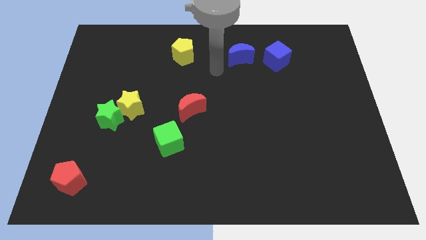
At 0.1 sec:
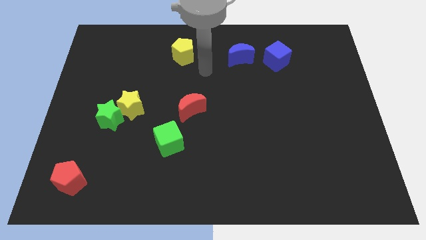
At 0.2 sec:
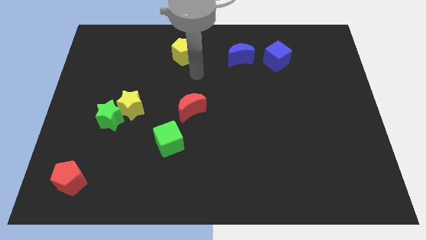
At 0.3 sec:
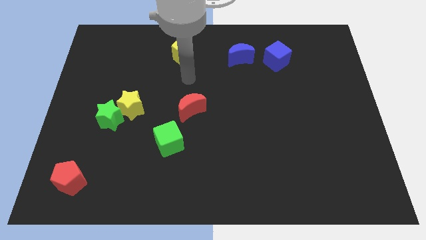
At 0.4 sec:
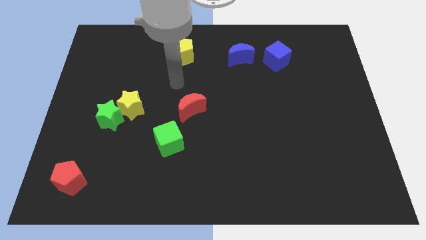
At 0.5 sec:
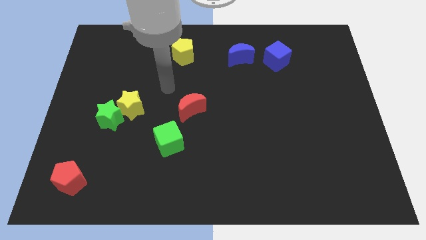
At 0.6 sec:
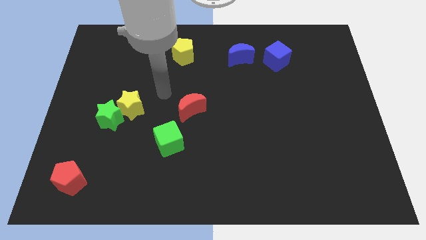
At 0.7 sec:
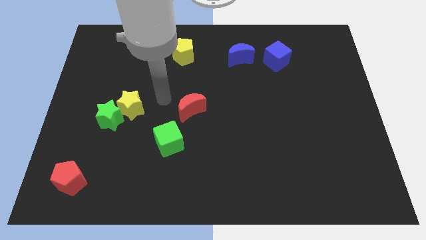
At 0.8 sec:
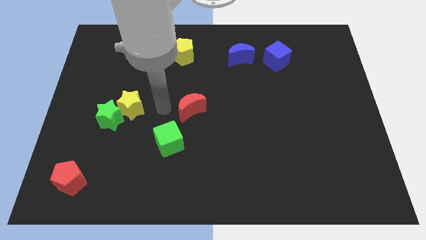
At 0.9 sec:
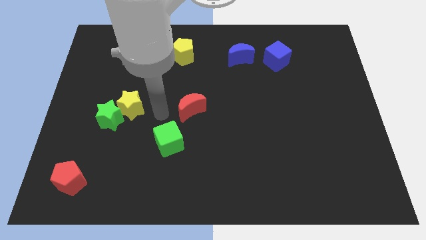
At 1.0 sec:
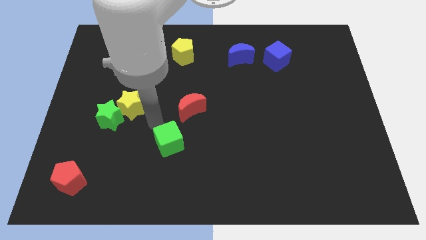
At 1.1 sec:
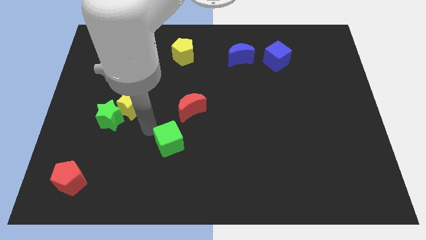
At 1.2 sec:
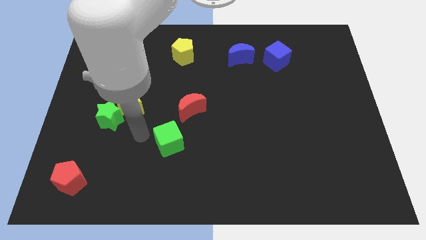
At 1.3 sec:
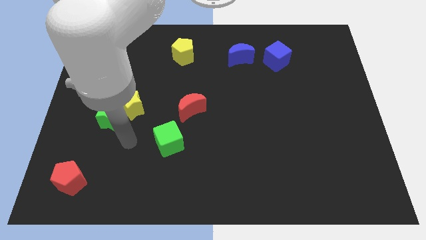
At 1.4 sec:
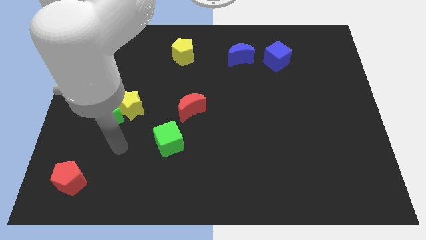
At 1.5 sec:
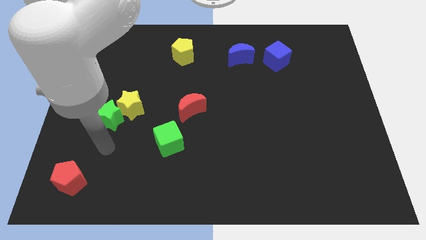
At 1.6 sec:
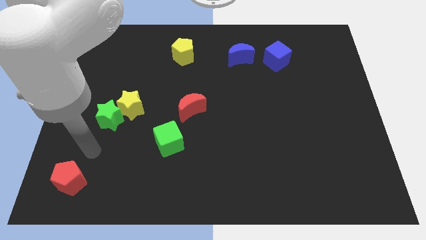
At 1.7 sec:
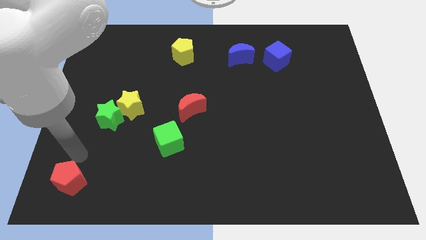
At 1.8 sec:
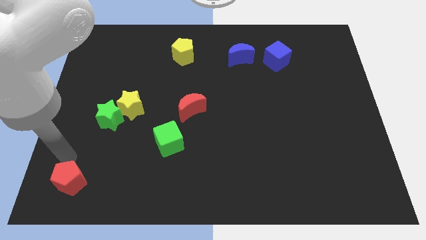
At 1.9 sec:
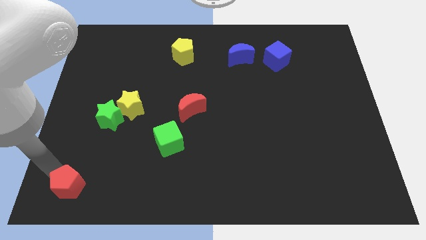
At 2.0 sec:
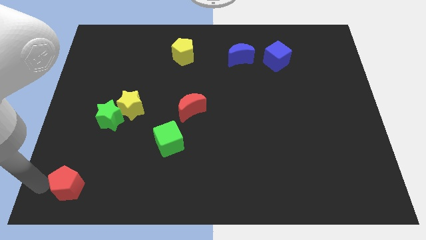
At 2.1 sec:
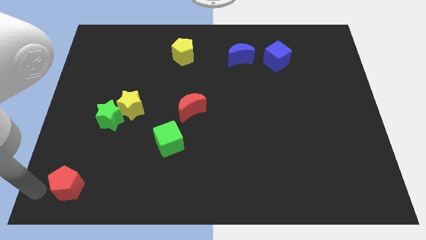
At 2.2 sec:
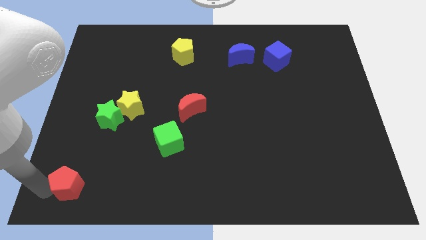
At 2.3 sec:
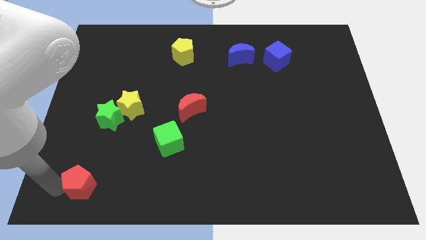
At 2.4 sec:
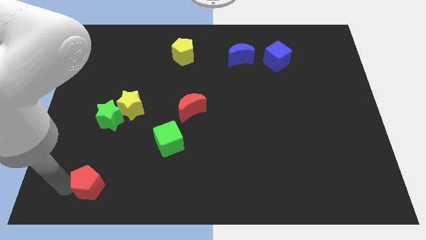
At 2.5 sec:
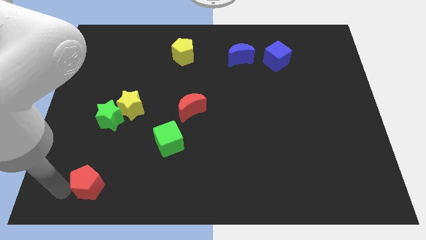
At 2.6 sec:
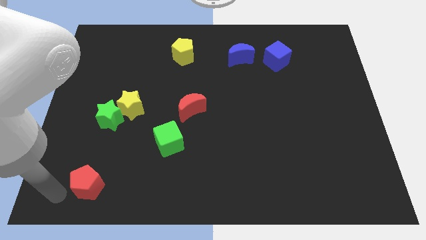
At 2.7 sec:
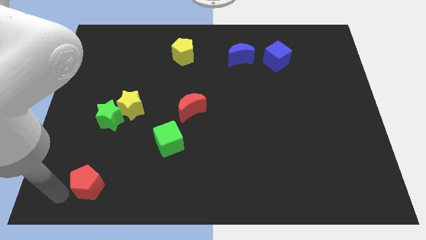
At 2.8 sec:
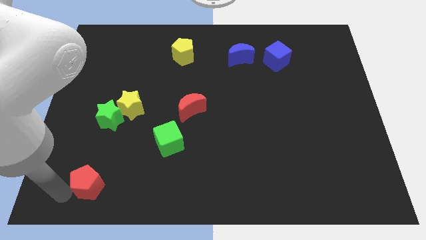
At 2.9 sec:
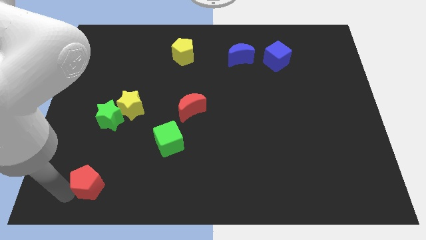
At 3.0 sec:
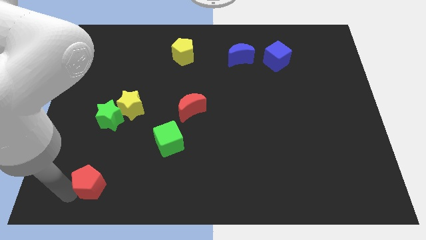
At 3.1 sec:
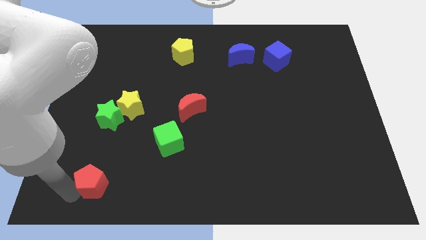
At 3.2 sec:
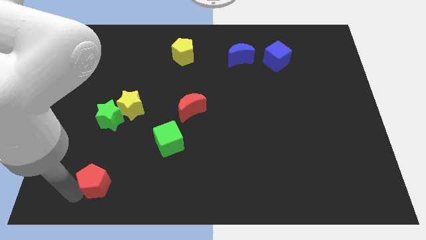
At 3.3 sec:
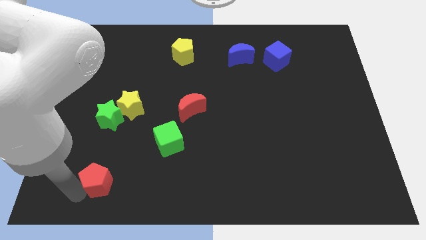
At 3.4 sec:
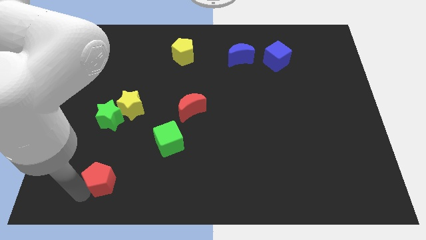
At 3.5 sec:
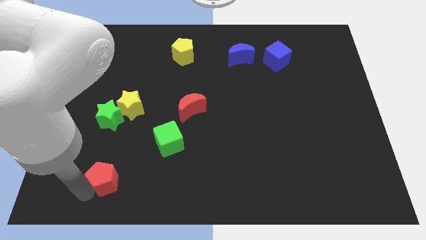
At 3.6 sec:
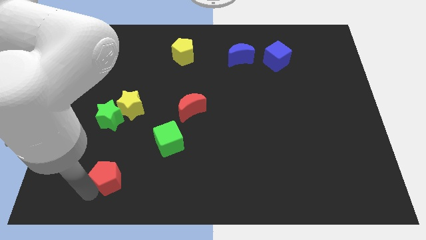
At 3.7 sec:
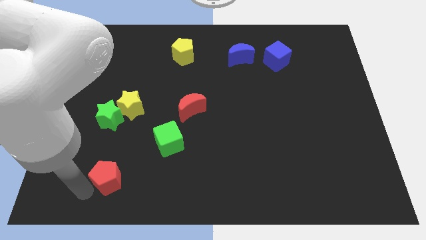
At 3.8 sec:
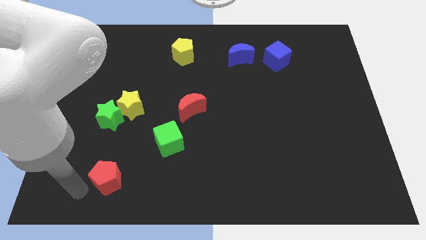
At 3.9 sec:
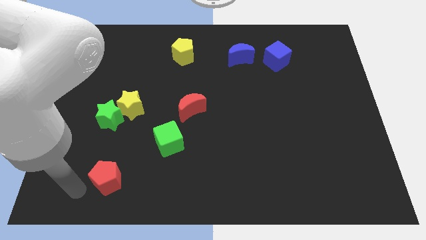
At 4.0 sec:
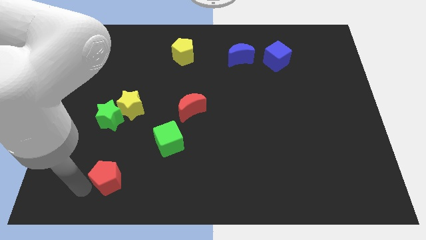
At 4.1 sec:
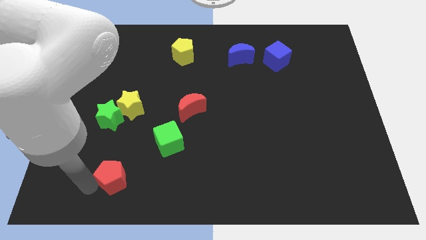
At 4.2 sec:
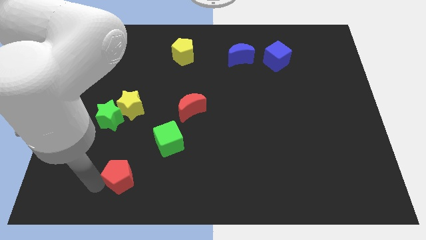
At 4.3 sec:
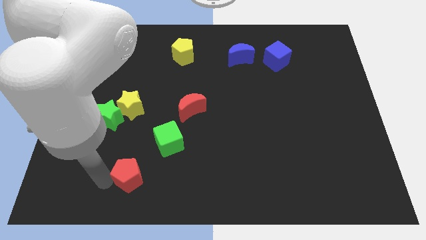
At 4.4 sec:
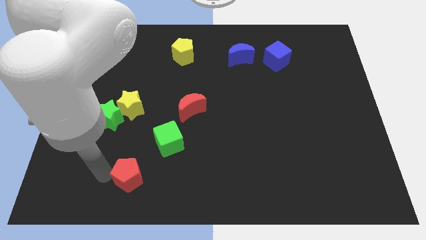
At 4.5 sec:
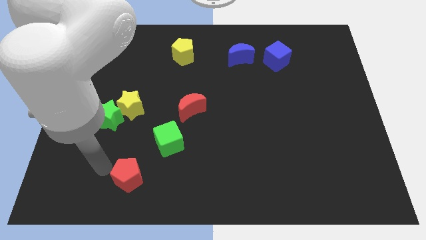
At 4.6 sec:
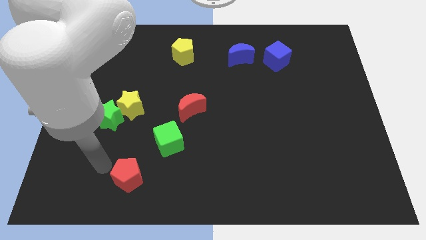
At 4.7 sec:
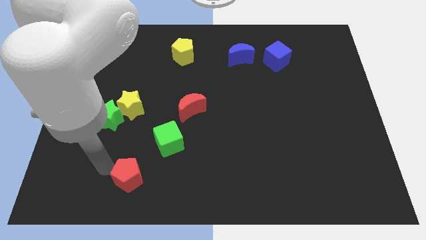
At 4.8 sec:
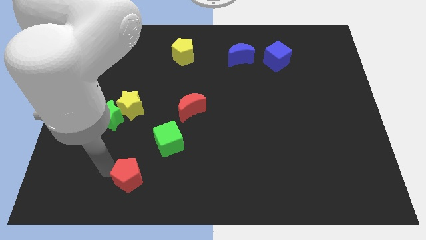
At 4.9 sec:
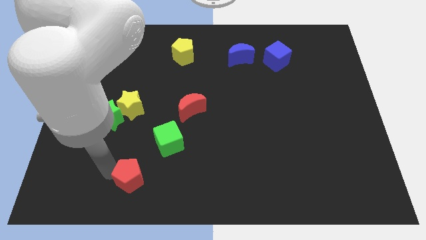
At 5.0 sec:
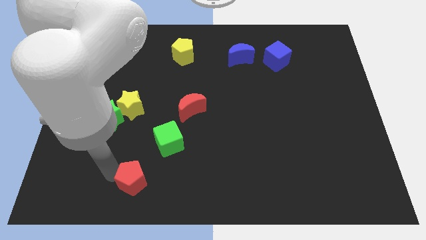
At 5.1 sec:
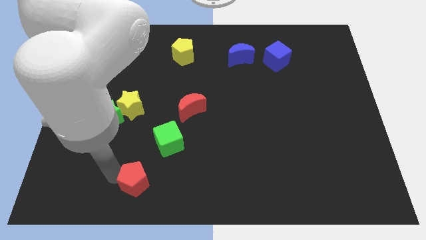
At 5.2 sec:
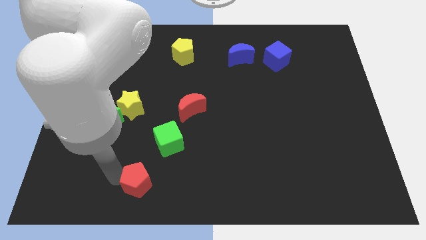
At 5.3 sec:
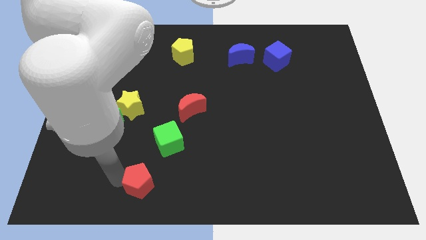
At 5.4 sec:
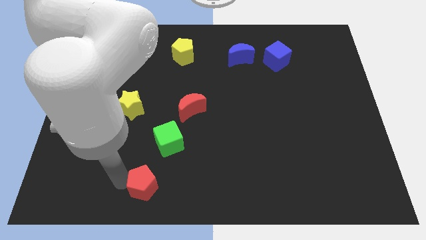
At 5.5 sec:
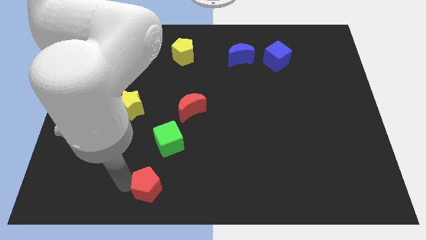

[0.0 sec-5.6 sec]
put the red pentagon to the bottom

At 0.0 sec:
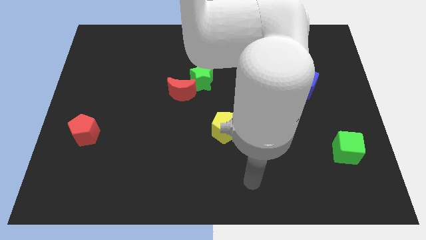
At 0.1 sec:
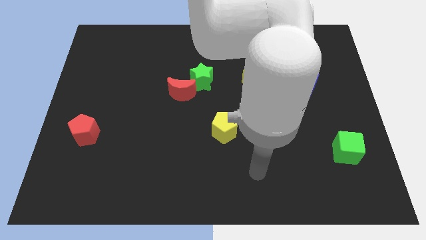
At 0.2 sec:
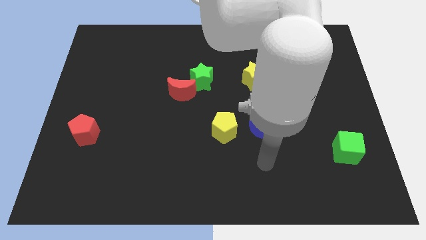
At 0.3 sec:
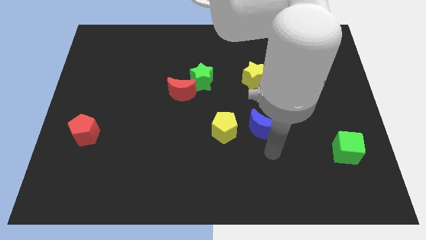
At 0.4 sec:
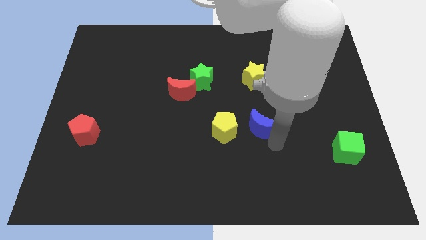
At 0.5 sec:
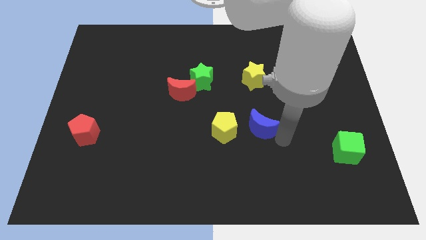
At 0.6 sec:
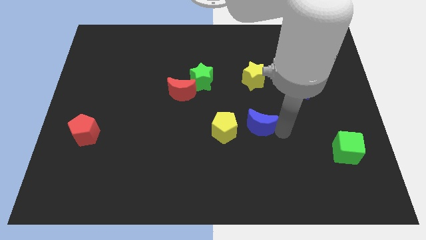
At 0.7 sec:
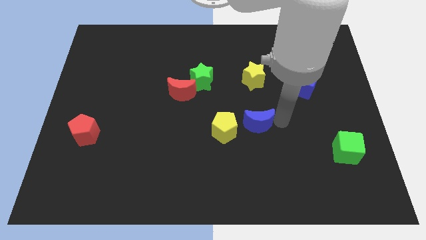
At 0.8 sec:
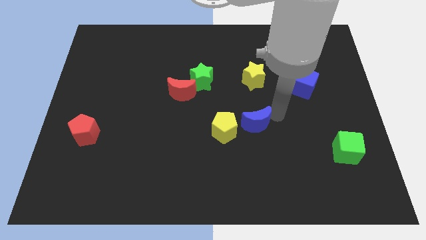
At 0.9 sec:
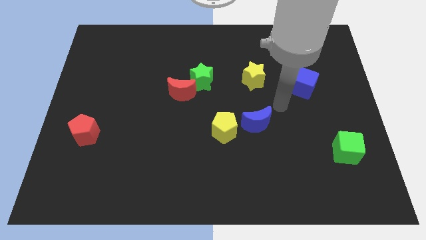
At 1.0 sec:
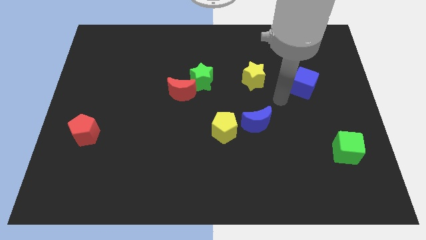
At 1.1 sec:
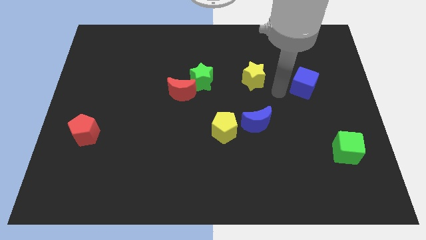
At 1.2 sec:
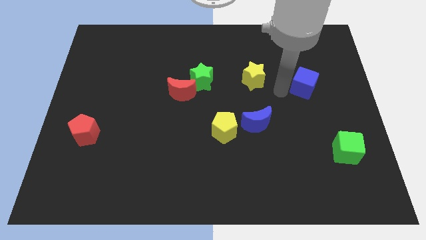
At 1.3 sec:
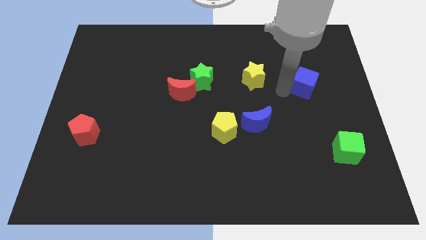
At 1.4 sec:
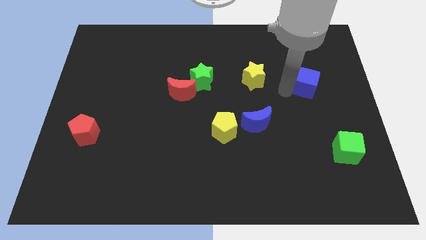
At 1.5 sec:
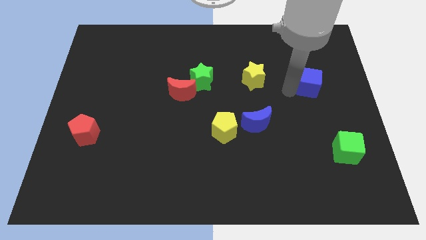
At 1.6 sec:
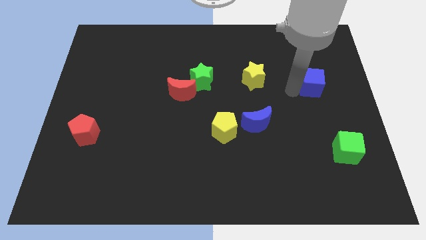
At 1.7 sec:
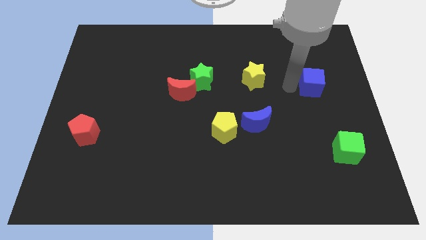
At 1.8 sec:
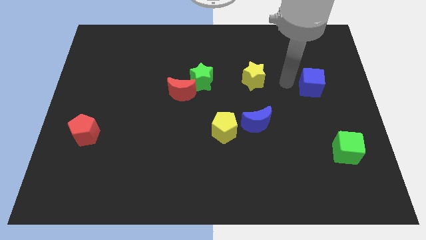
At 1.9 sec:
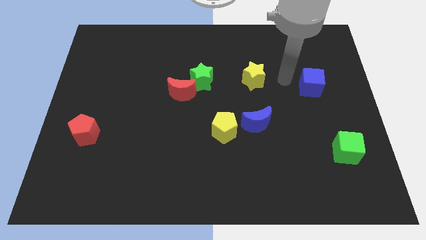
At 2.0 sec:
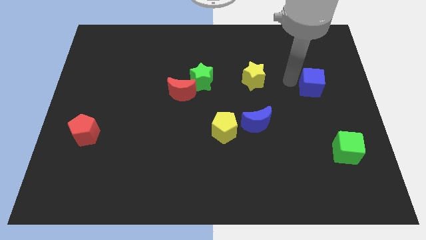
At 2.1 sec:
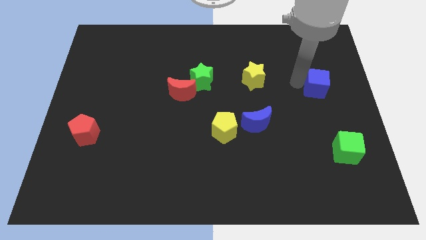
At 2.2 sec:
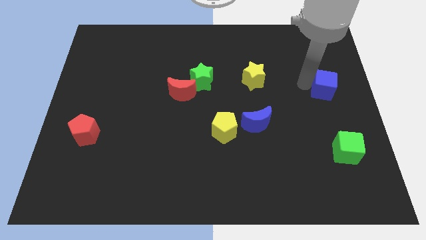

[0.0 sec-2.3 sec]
move the blue cube to the right side
